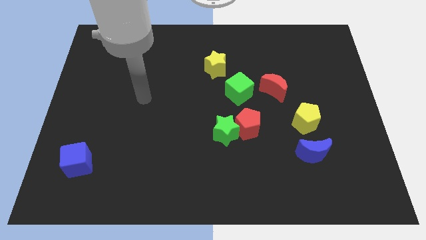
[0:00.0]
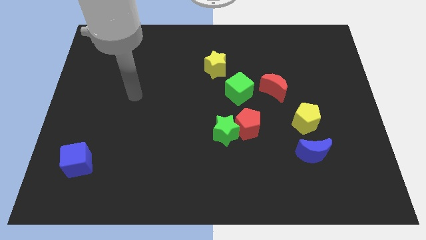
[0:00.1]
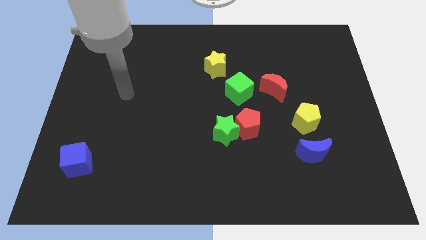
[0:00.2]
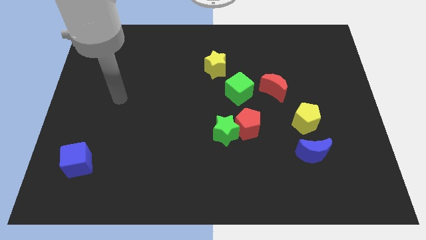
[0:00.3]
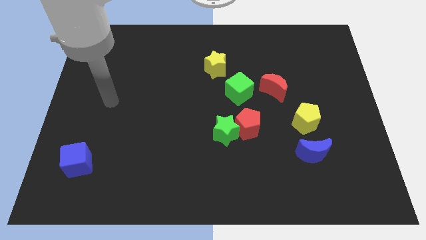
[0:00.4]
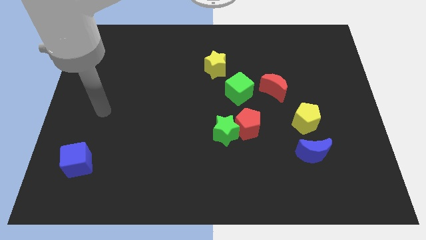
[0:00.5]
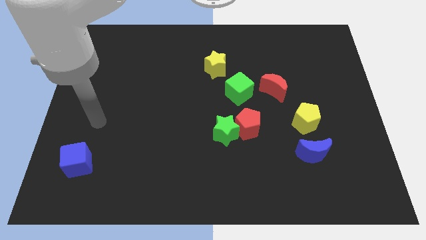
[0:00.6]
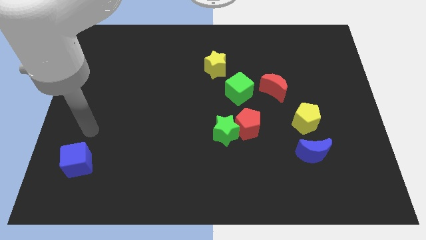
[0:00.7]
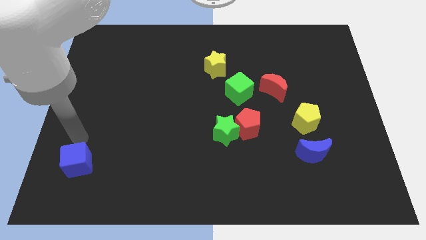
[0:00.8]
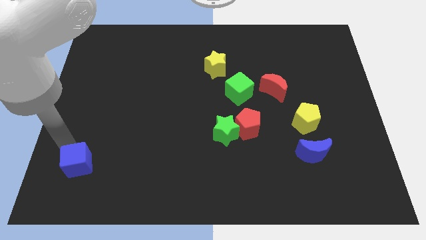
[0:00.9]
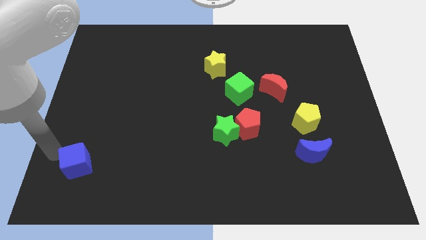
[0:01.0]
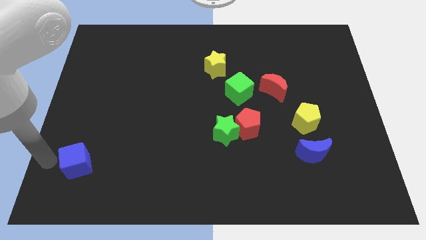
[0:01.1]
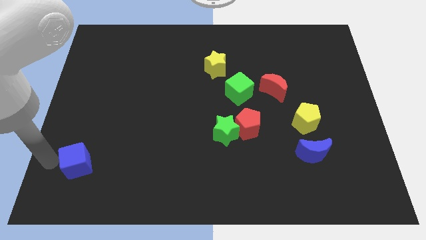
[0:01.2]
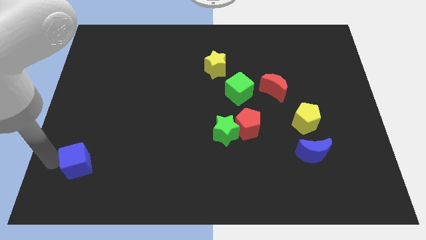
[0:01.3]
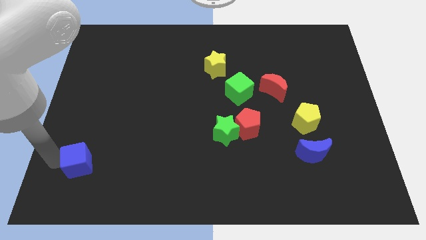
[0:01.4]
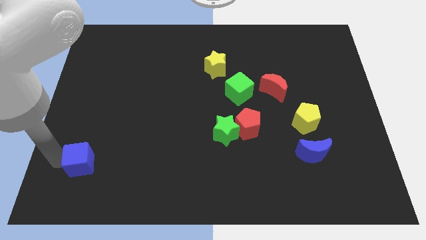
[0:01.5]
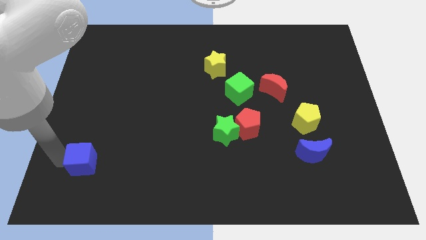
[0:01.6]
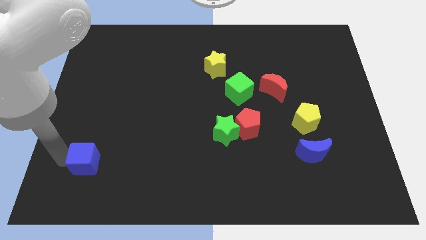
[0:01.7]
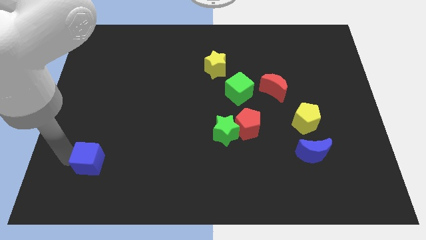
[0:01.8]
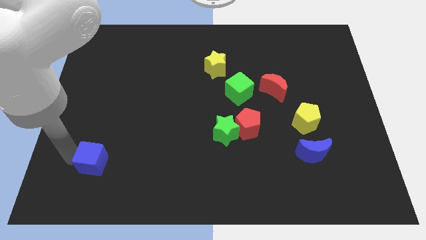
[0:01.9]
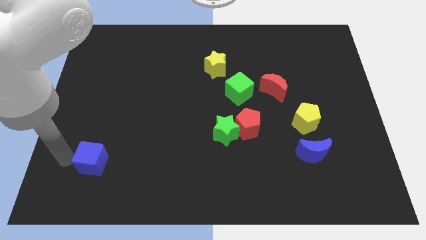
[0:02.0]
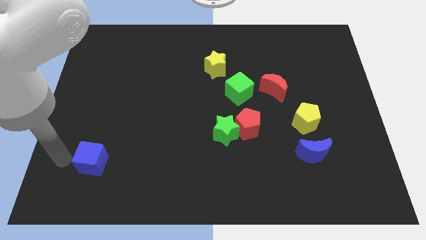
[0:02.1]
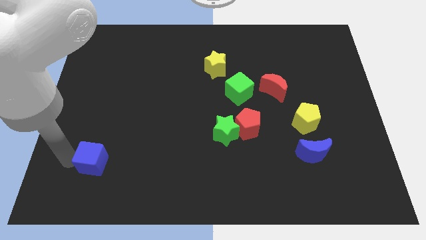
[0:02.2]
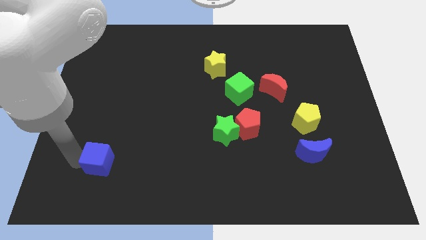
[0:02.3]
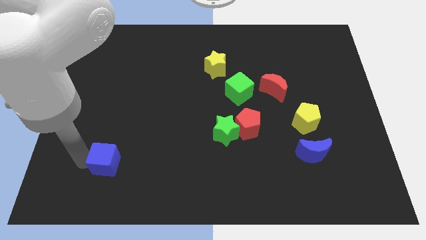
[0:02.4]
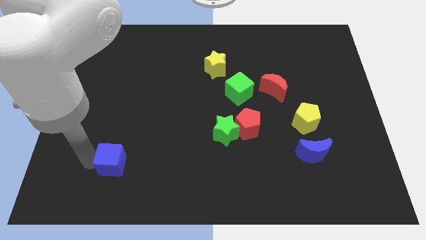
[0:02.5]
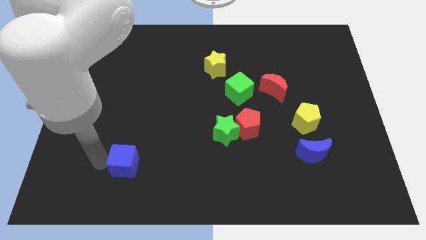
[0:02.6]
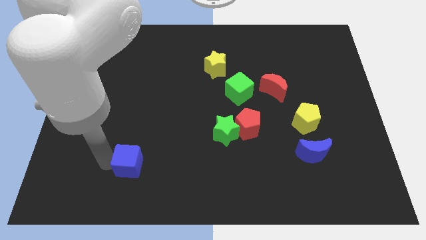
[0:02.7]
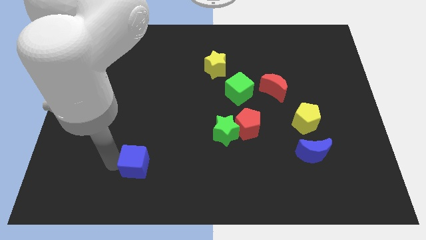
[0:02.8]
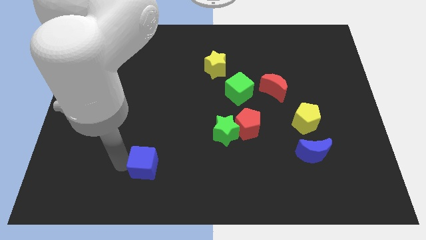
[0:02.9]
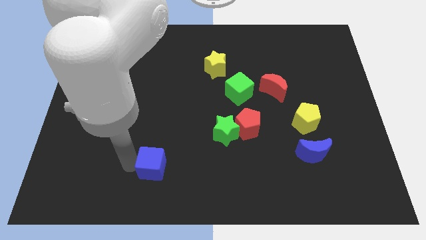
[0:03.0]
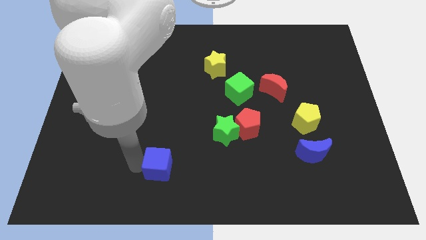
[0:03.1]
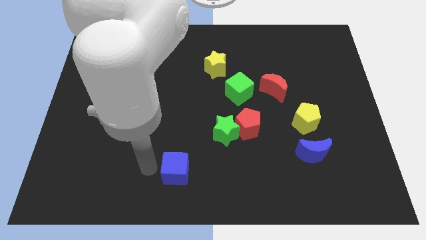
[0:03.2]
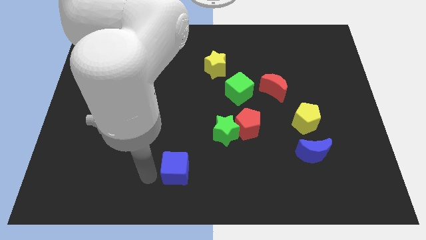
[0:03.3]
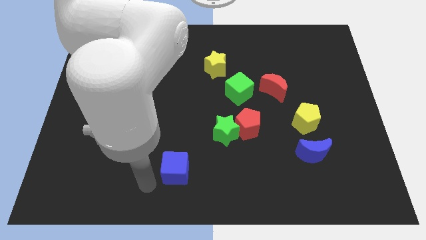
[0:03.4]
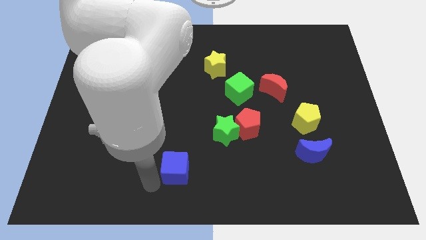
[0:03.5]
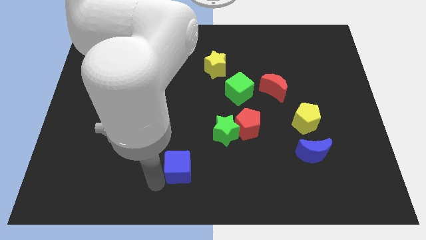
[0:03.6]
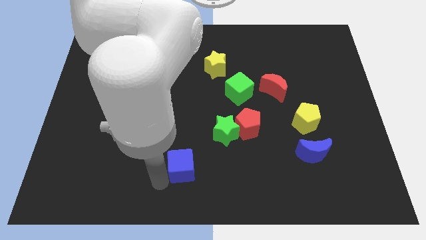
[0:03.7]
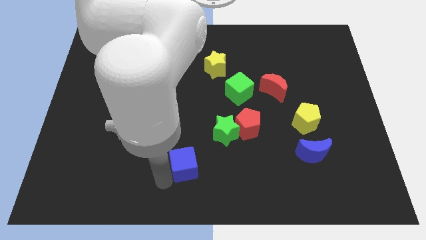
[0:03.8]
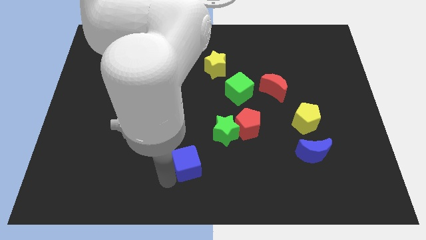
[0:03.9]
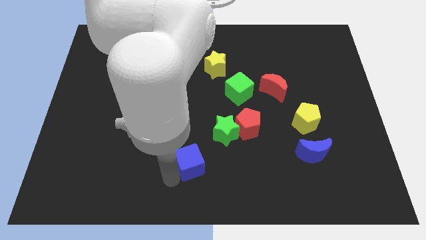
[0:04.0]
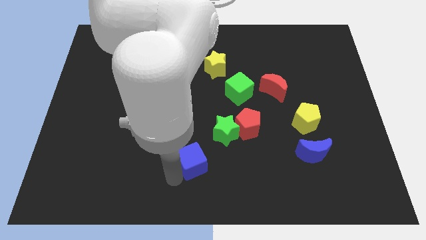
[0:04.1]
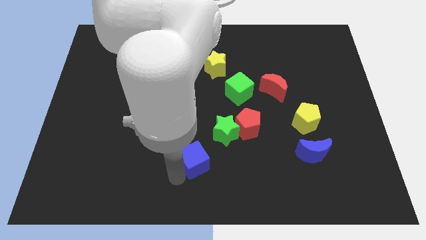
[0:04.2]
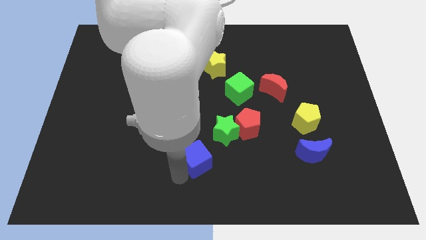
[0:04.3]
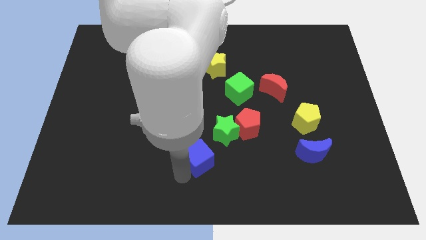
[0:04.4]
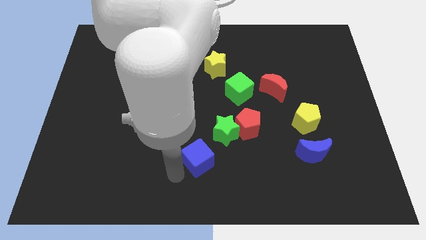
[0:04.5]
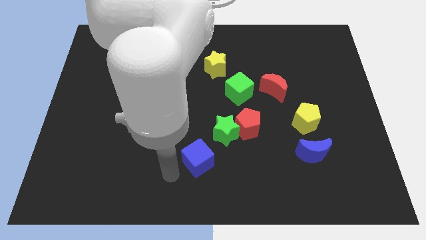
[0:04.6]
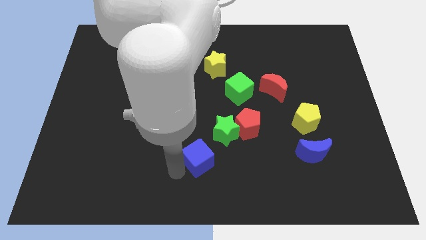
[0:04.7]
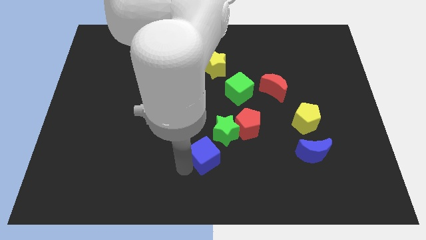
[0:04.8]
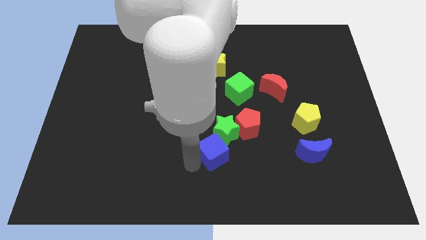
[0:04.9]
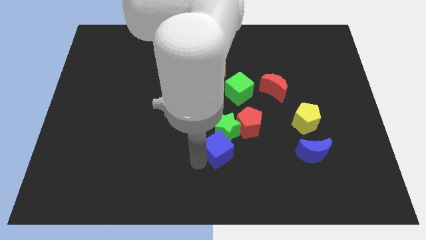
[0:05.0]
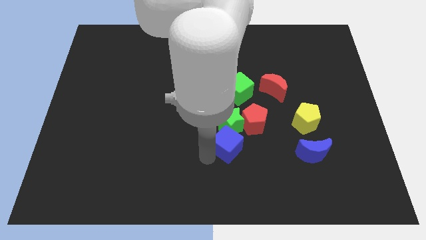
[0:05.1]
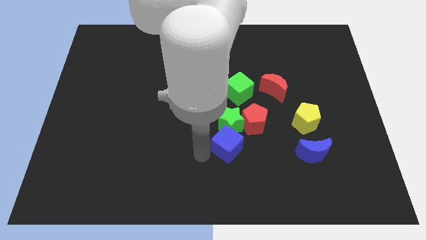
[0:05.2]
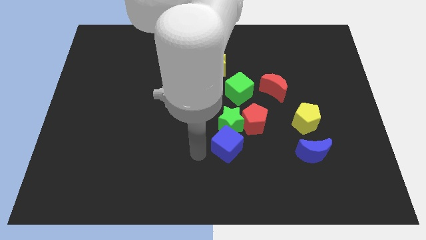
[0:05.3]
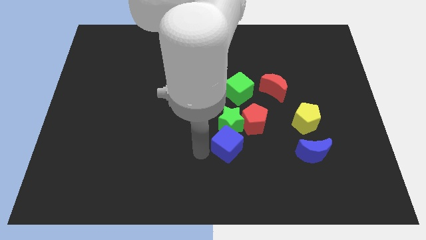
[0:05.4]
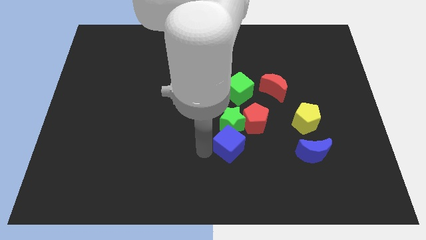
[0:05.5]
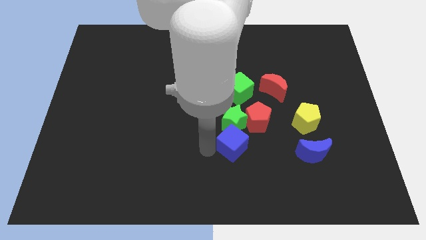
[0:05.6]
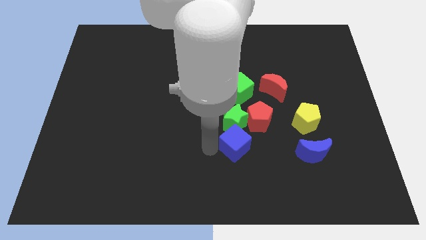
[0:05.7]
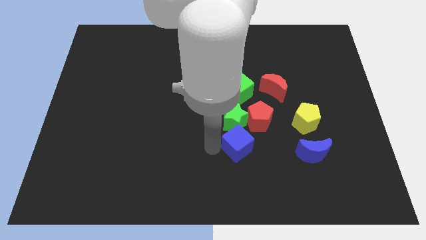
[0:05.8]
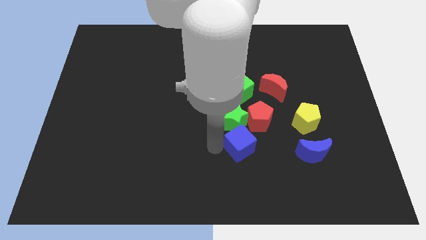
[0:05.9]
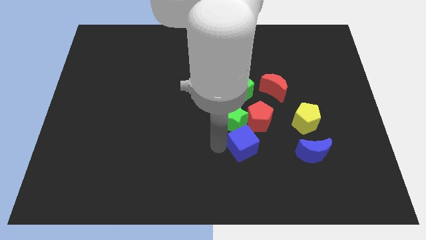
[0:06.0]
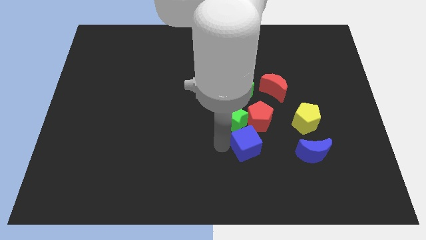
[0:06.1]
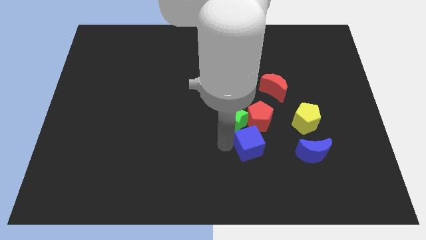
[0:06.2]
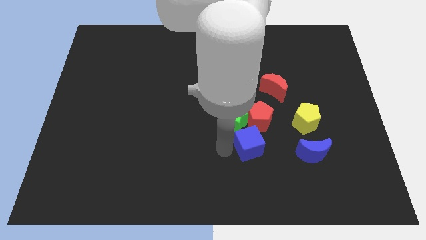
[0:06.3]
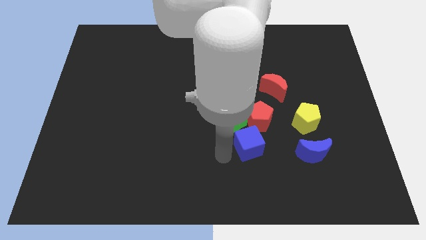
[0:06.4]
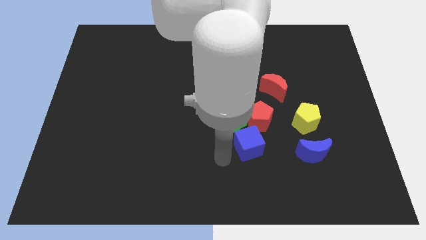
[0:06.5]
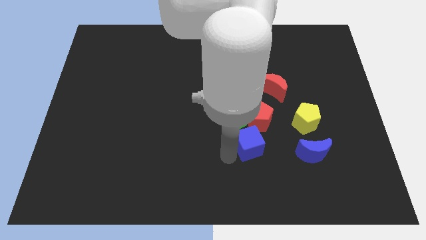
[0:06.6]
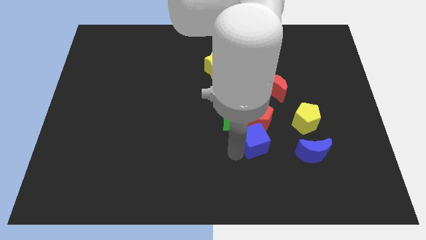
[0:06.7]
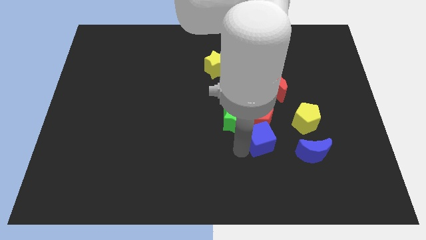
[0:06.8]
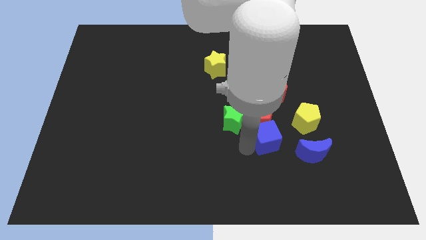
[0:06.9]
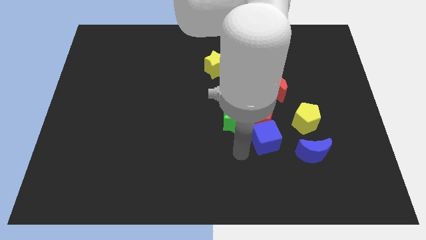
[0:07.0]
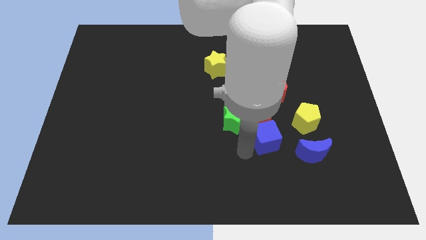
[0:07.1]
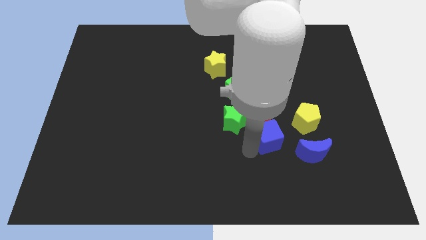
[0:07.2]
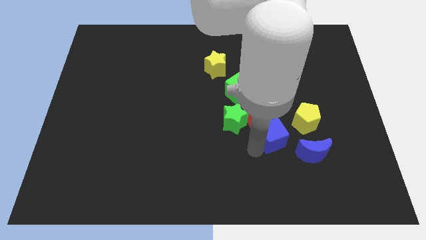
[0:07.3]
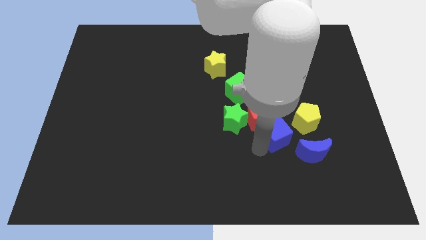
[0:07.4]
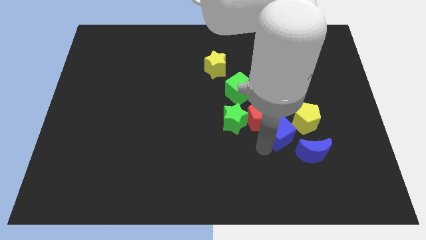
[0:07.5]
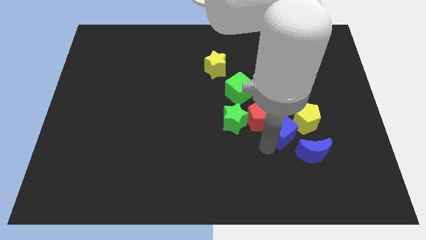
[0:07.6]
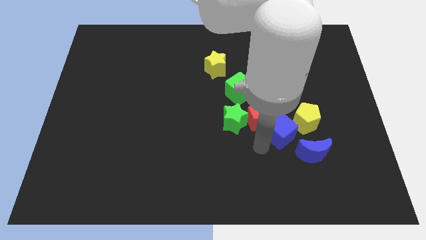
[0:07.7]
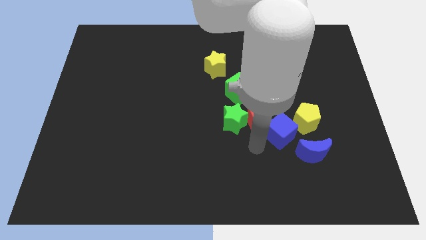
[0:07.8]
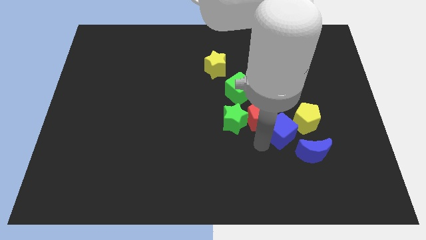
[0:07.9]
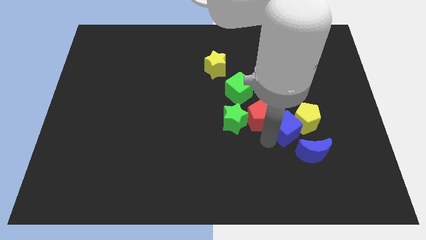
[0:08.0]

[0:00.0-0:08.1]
put the blue cube towards the yellow pentagon
